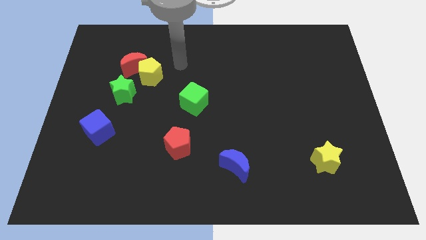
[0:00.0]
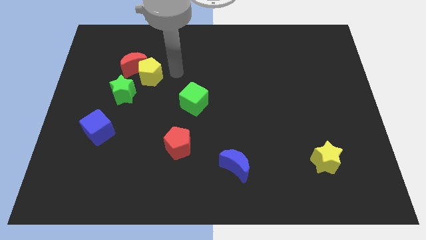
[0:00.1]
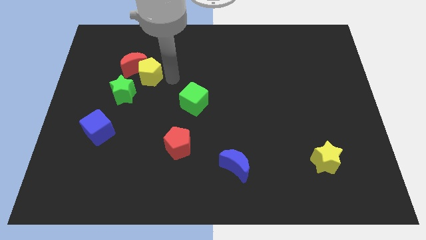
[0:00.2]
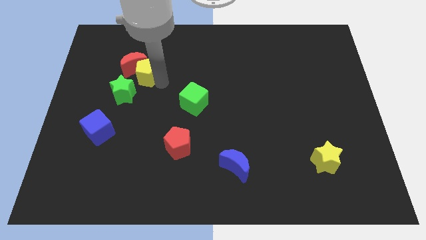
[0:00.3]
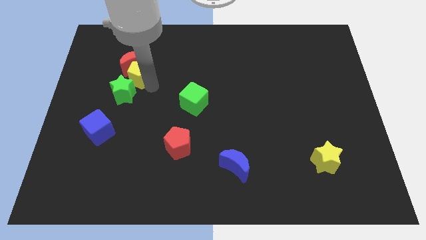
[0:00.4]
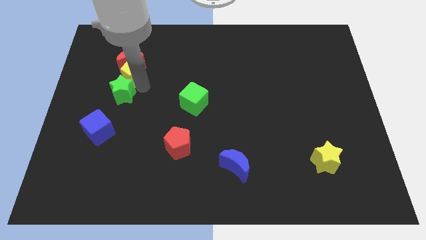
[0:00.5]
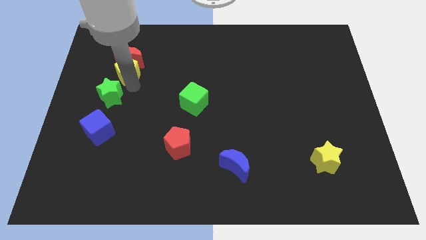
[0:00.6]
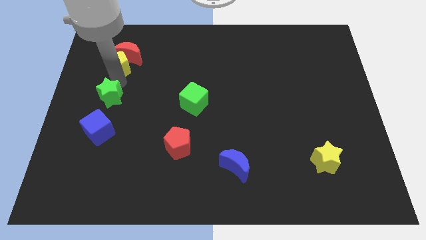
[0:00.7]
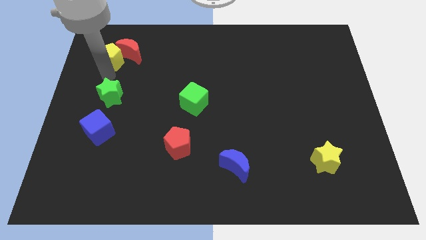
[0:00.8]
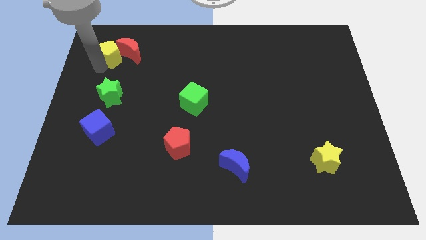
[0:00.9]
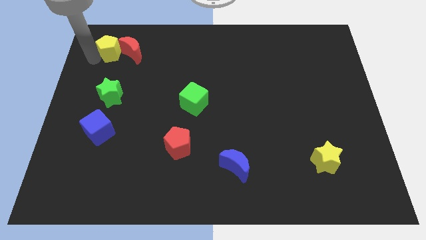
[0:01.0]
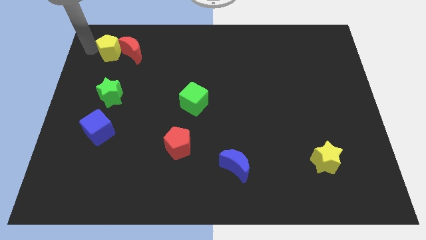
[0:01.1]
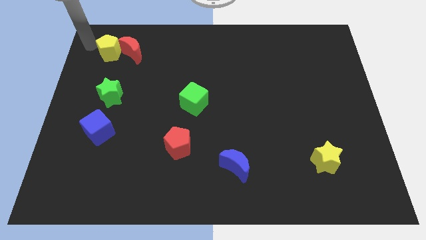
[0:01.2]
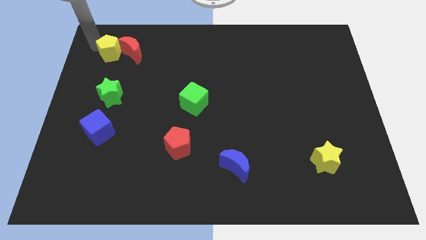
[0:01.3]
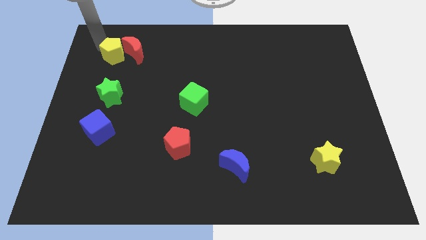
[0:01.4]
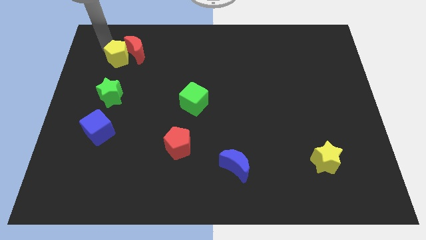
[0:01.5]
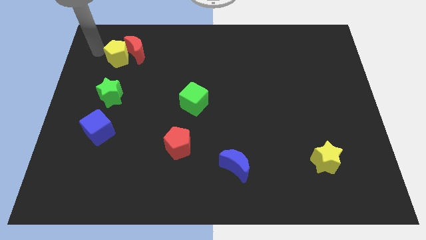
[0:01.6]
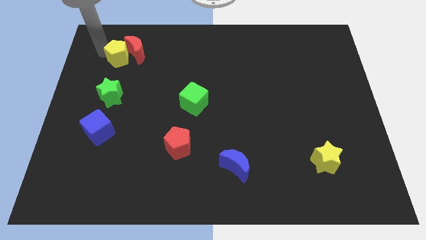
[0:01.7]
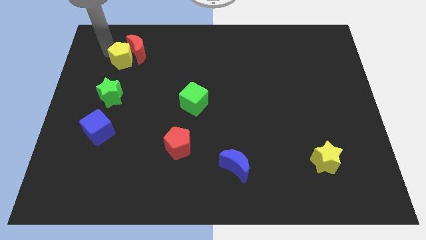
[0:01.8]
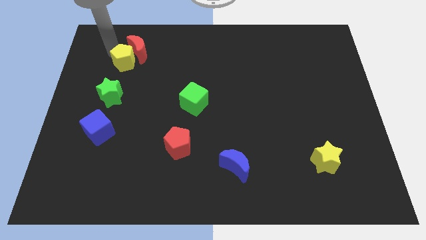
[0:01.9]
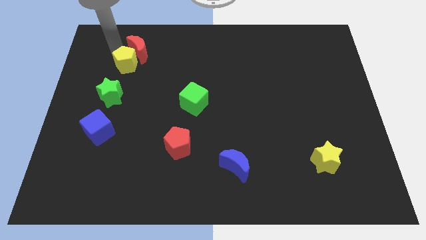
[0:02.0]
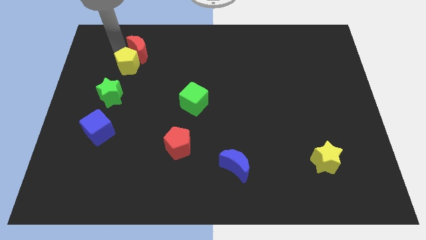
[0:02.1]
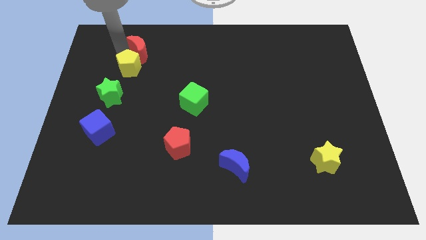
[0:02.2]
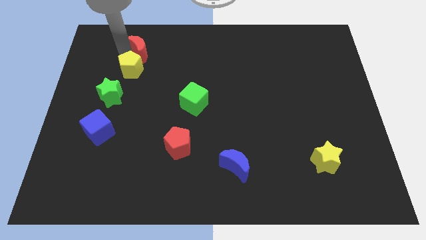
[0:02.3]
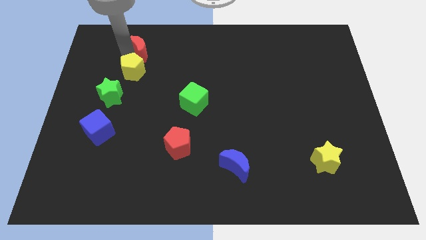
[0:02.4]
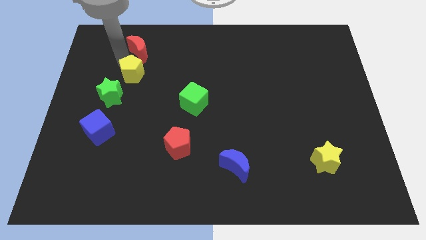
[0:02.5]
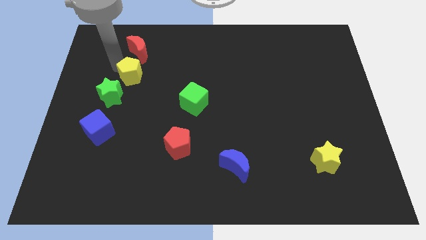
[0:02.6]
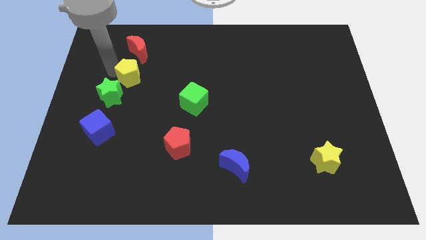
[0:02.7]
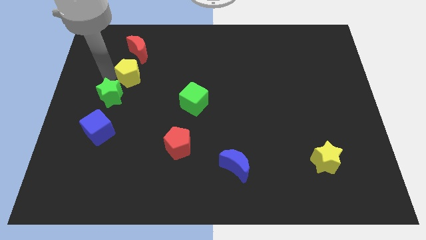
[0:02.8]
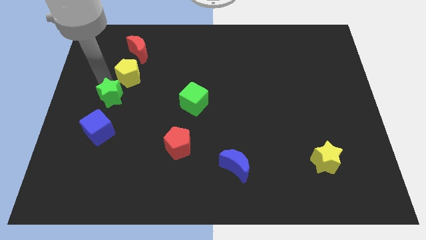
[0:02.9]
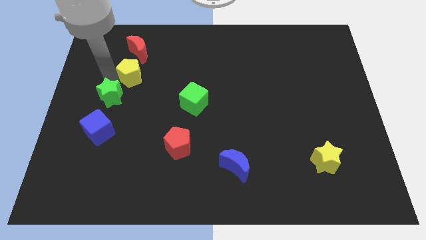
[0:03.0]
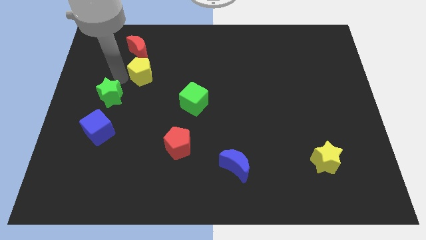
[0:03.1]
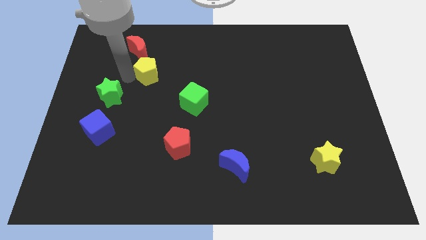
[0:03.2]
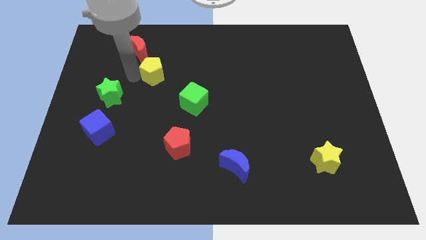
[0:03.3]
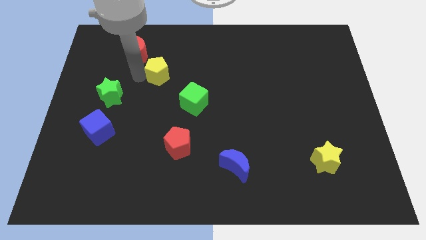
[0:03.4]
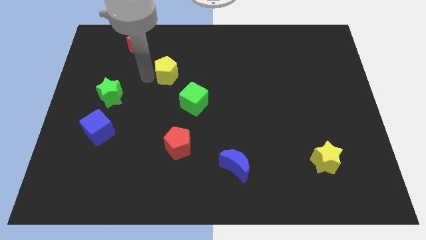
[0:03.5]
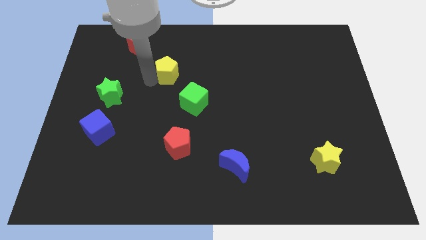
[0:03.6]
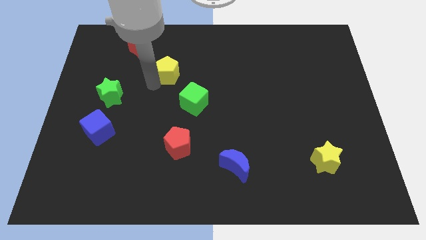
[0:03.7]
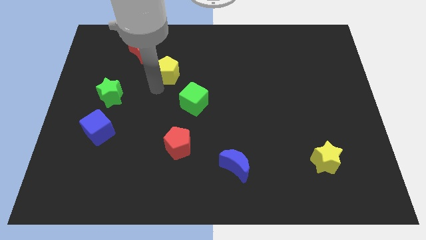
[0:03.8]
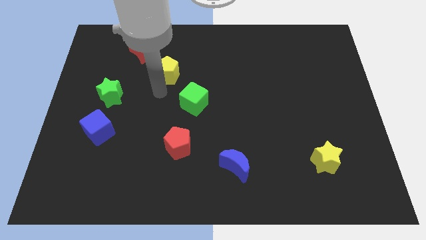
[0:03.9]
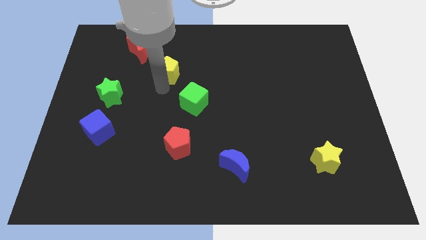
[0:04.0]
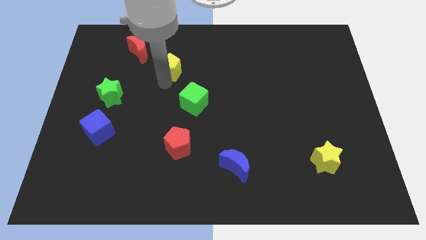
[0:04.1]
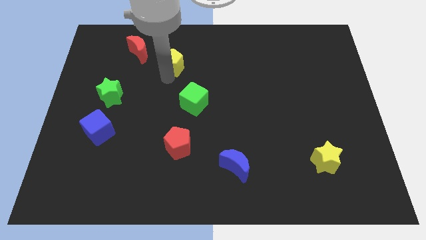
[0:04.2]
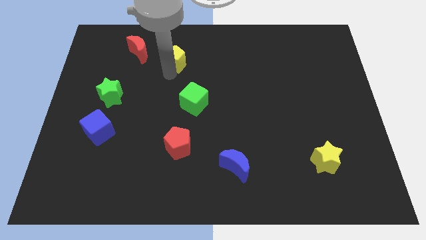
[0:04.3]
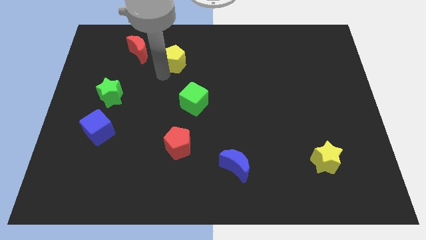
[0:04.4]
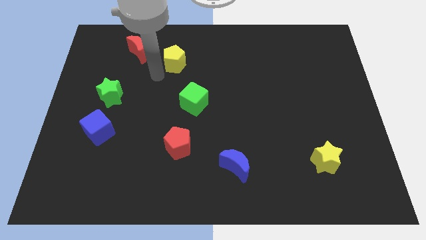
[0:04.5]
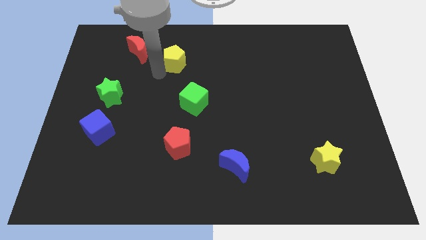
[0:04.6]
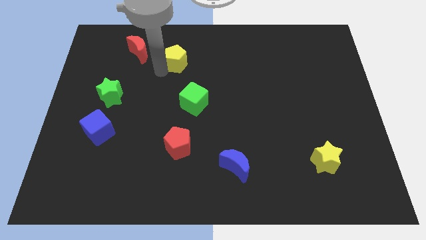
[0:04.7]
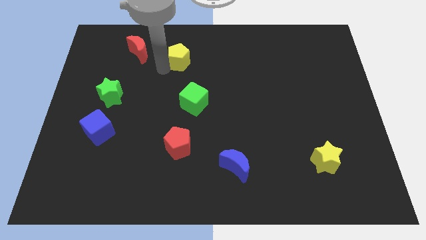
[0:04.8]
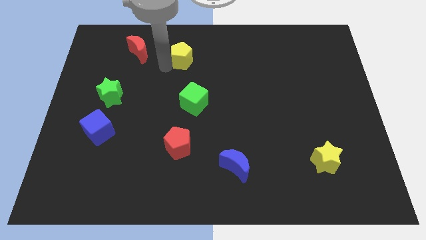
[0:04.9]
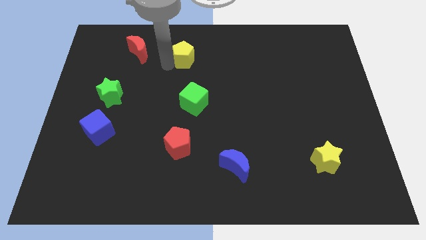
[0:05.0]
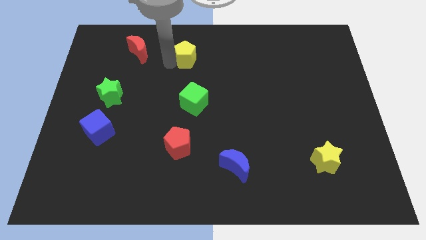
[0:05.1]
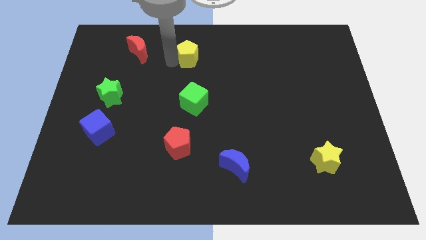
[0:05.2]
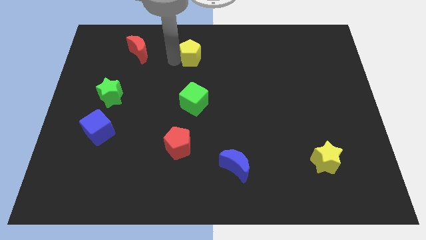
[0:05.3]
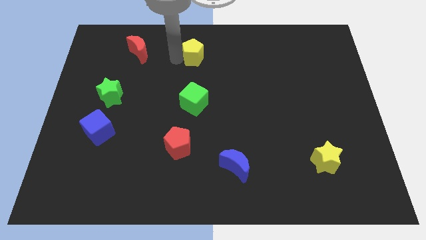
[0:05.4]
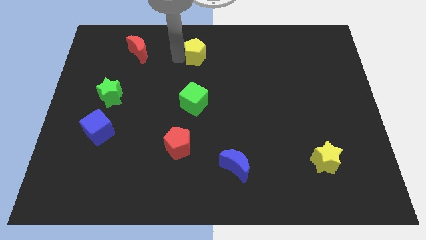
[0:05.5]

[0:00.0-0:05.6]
put the yellow pentagon to the top side

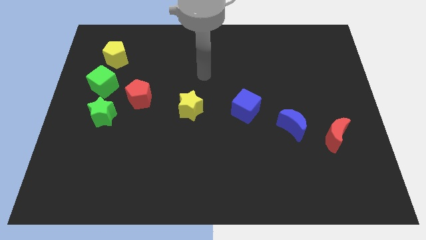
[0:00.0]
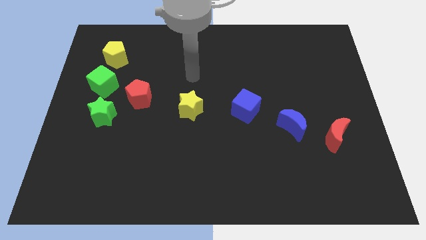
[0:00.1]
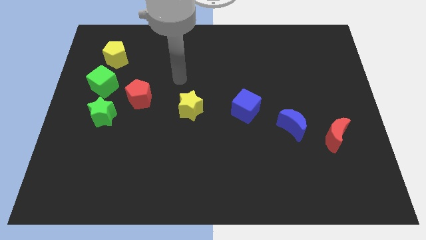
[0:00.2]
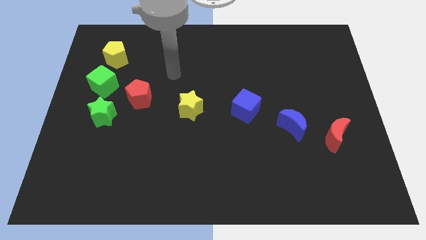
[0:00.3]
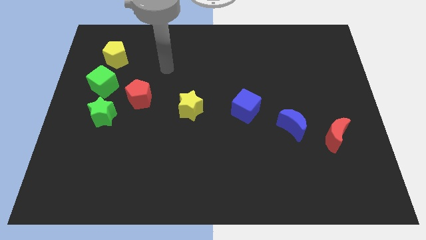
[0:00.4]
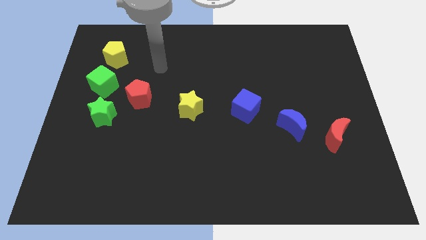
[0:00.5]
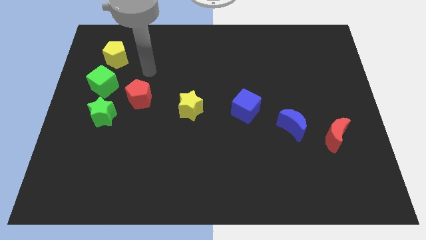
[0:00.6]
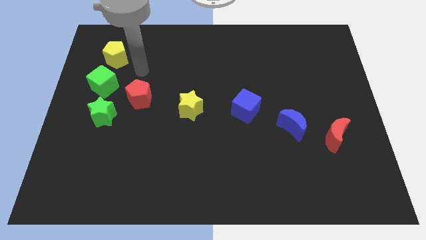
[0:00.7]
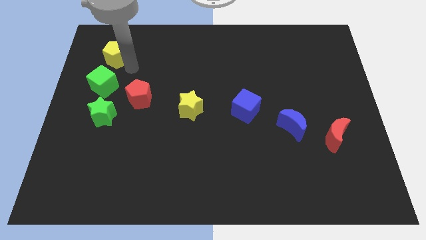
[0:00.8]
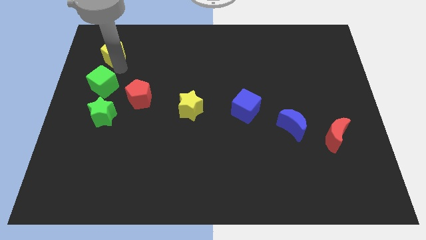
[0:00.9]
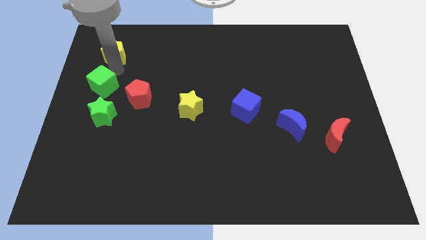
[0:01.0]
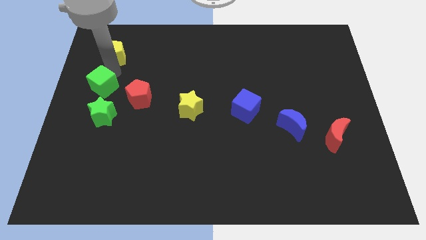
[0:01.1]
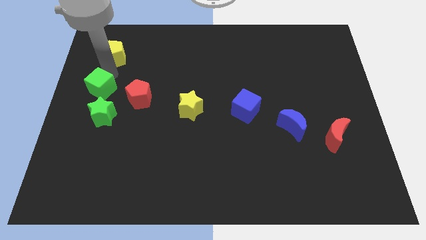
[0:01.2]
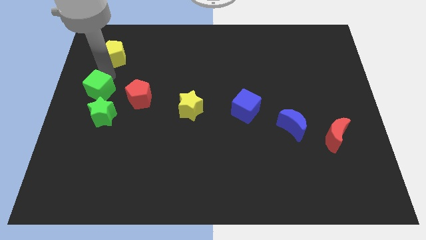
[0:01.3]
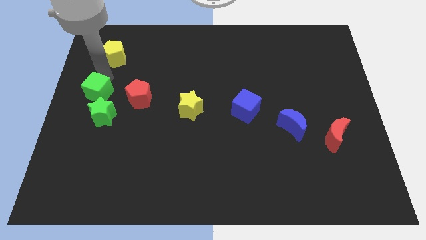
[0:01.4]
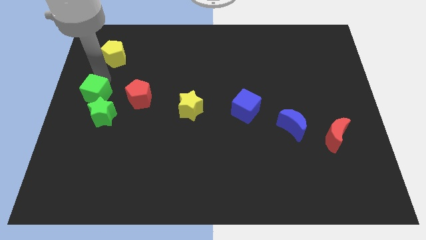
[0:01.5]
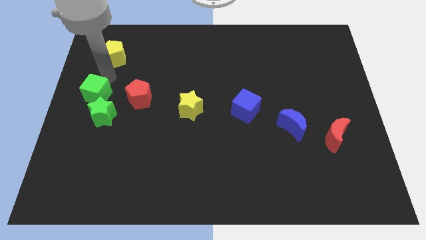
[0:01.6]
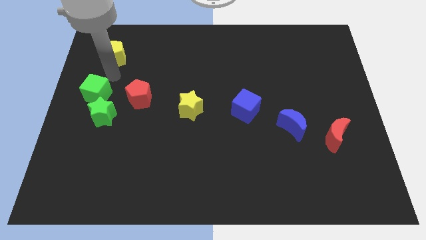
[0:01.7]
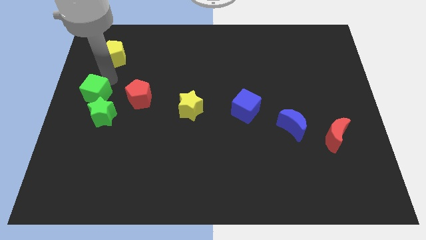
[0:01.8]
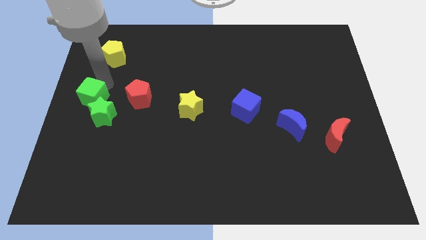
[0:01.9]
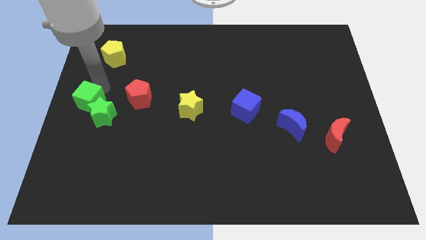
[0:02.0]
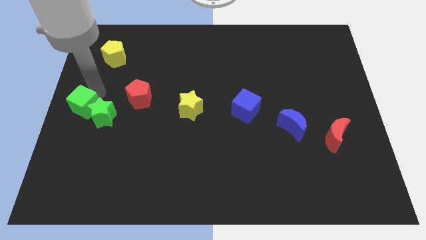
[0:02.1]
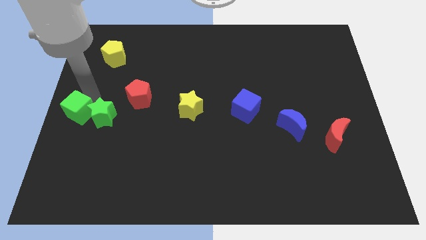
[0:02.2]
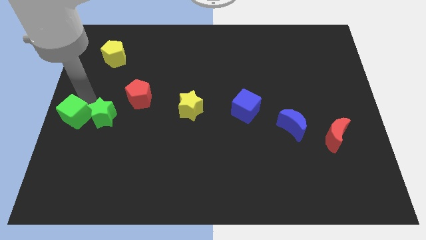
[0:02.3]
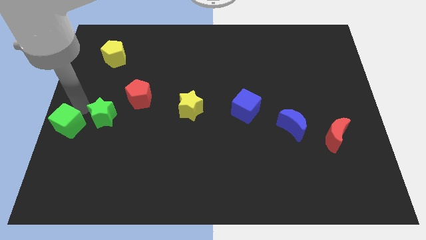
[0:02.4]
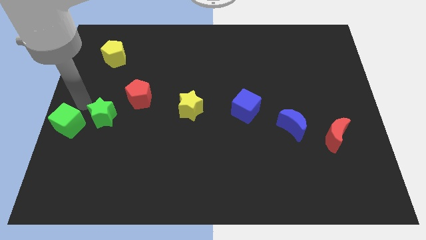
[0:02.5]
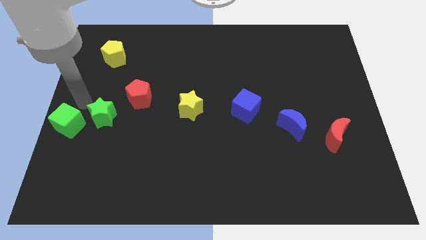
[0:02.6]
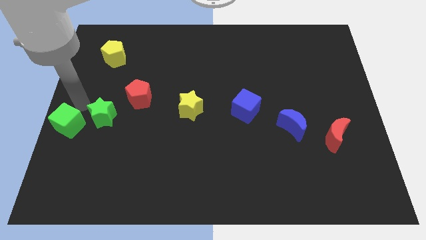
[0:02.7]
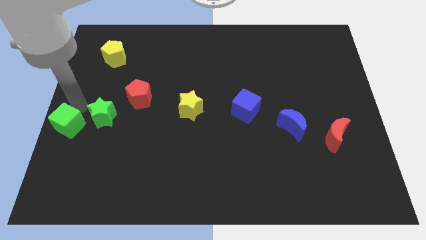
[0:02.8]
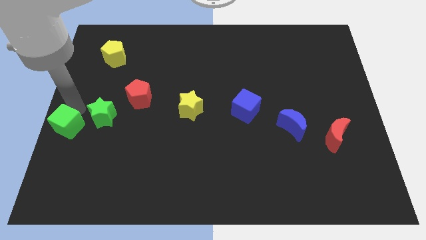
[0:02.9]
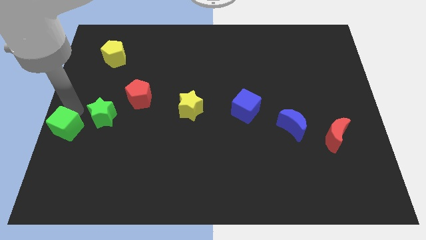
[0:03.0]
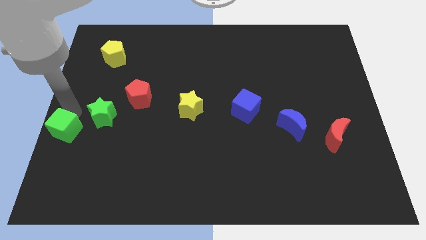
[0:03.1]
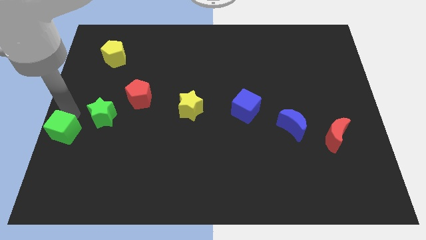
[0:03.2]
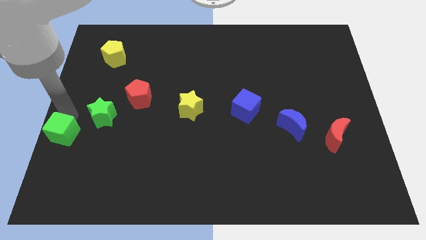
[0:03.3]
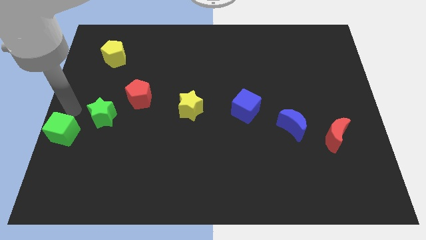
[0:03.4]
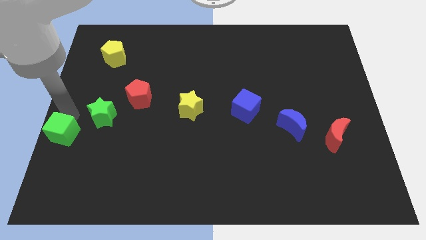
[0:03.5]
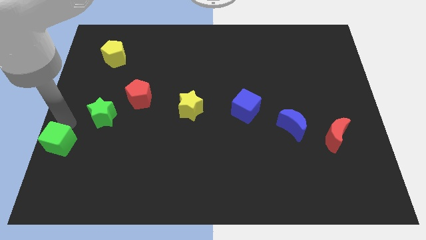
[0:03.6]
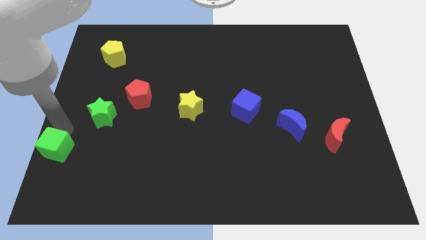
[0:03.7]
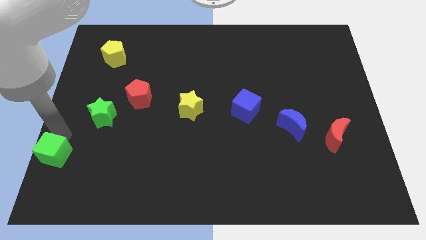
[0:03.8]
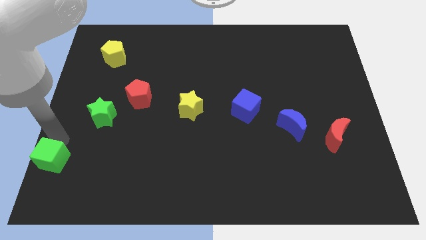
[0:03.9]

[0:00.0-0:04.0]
slide the green cube to the bottom left of the board
